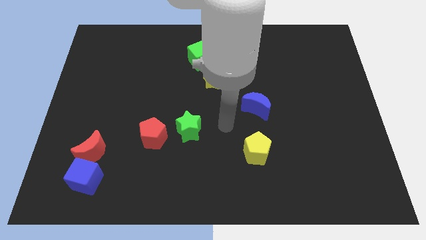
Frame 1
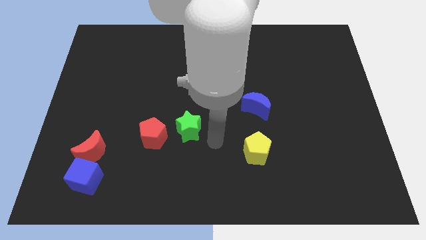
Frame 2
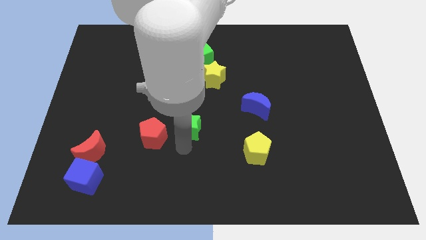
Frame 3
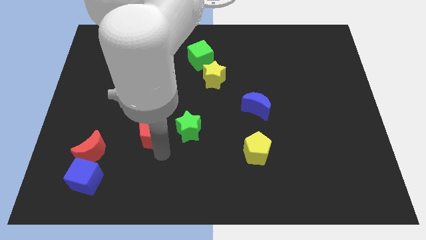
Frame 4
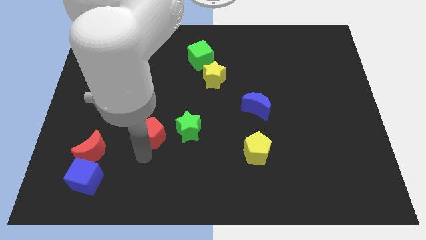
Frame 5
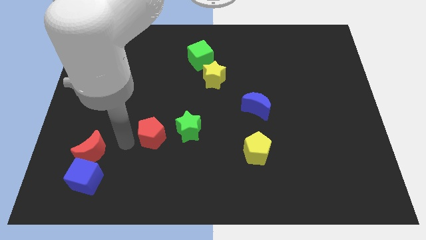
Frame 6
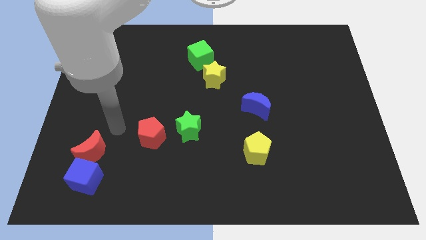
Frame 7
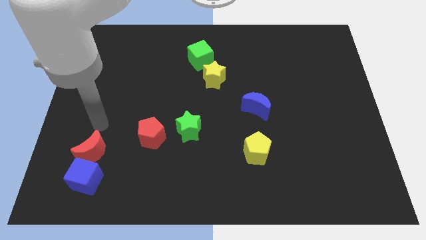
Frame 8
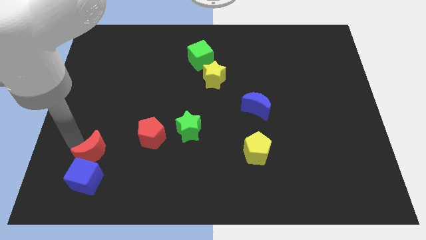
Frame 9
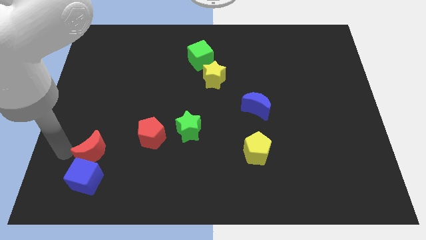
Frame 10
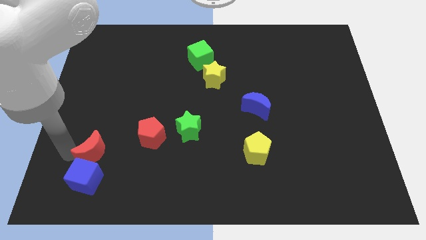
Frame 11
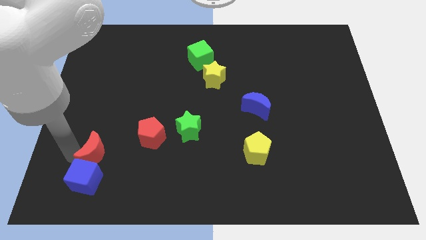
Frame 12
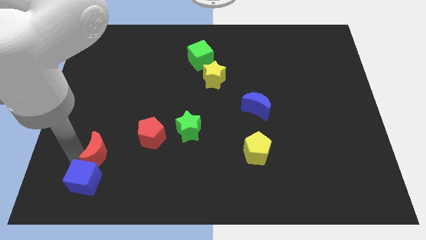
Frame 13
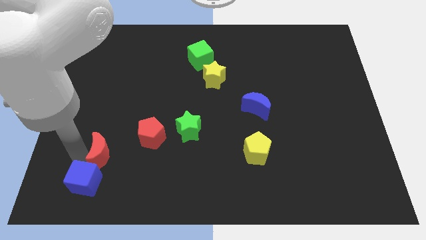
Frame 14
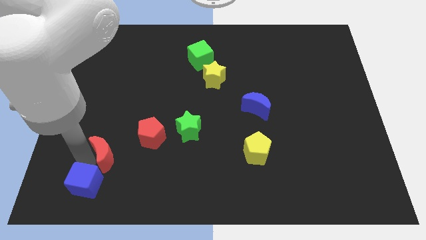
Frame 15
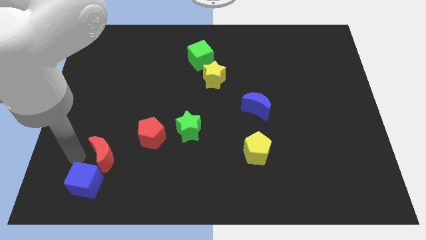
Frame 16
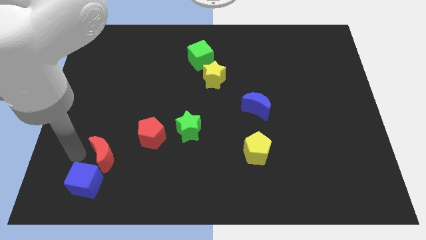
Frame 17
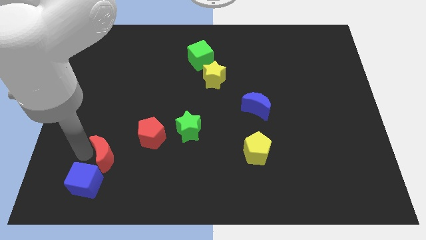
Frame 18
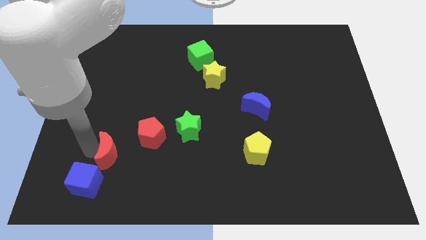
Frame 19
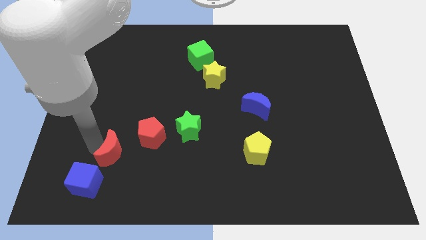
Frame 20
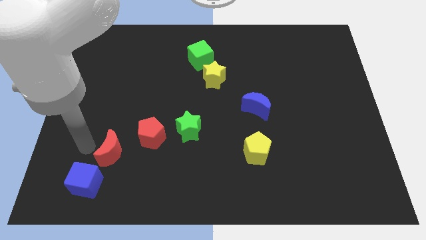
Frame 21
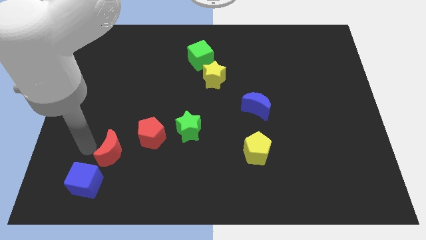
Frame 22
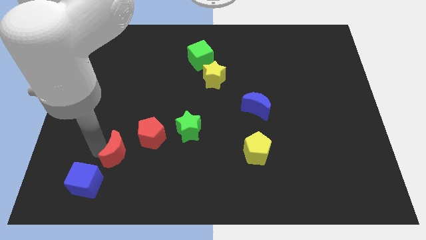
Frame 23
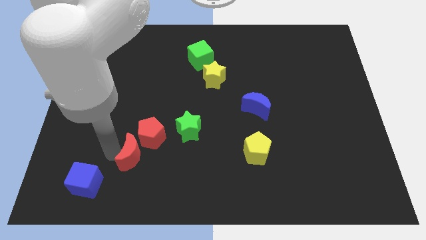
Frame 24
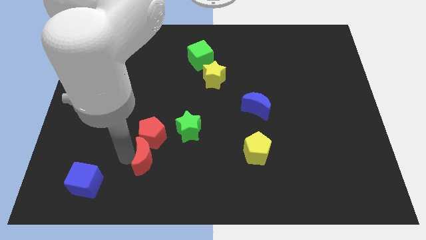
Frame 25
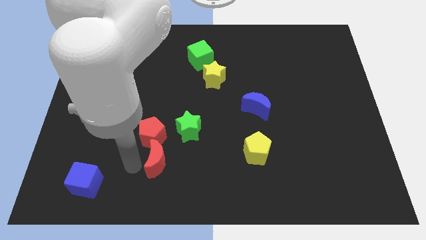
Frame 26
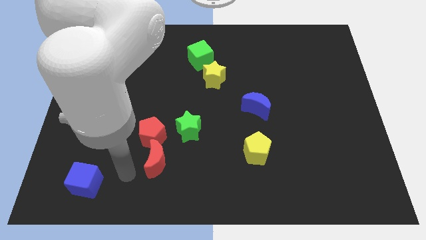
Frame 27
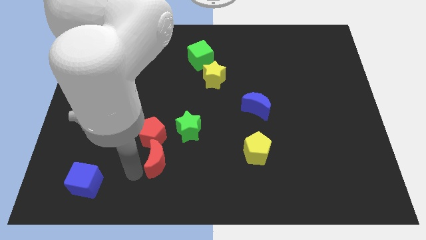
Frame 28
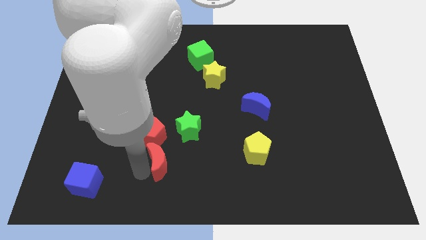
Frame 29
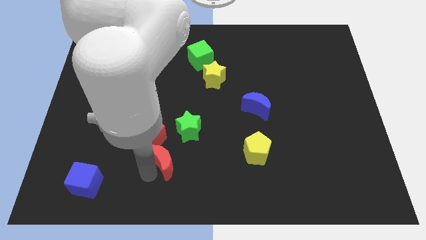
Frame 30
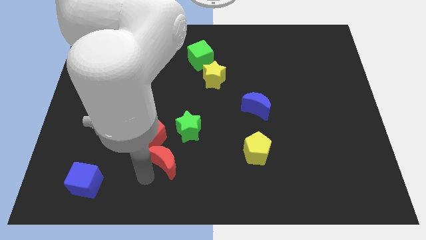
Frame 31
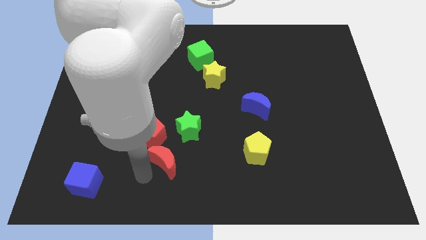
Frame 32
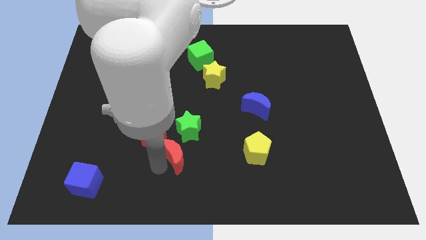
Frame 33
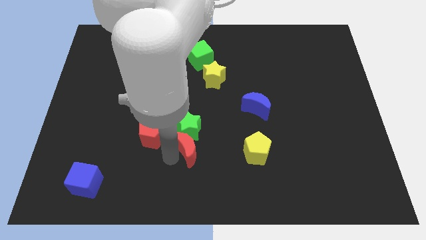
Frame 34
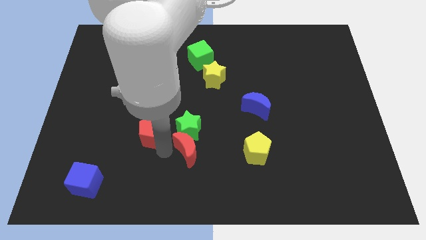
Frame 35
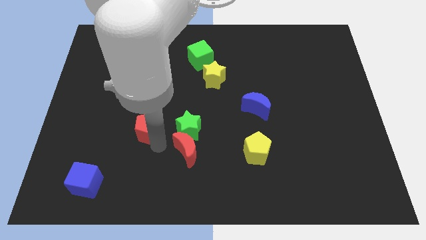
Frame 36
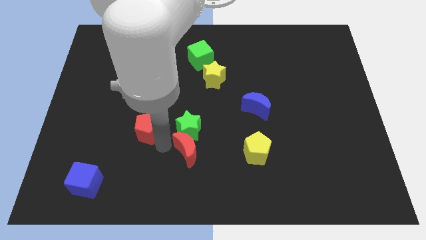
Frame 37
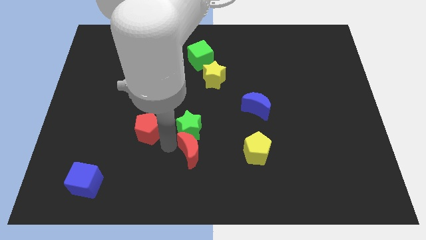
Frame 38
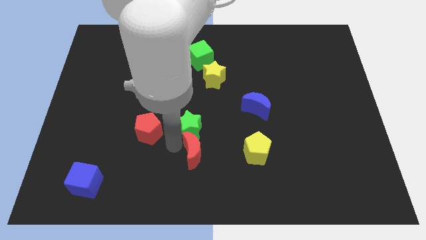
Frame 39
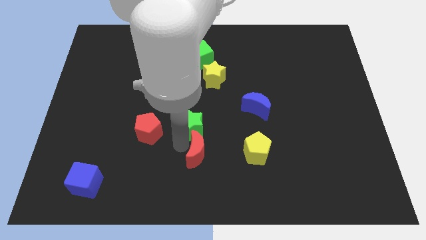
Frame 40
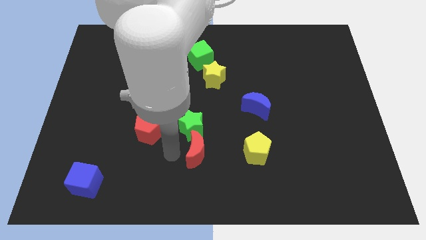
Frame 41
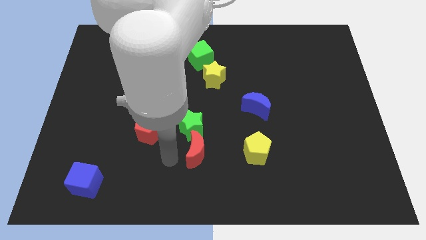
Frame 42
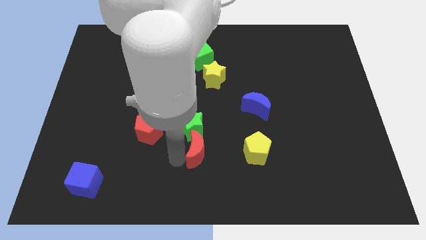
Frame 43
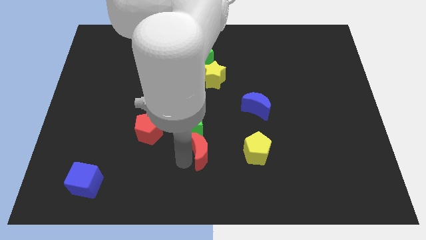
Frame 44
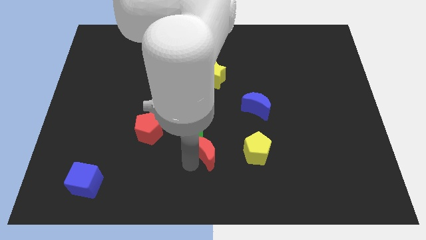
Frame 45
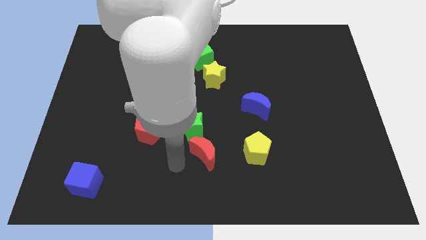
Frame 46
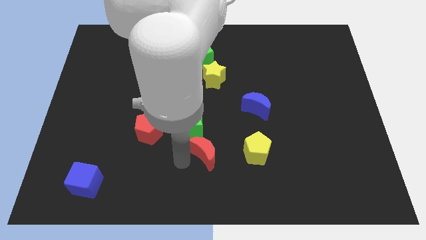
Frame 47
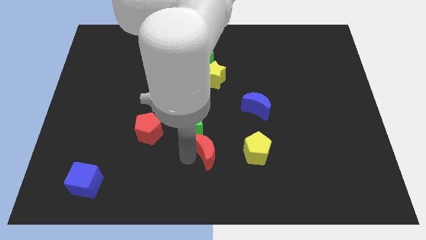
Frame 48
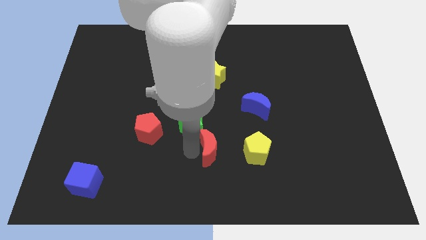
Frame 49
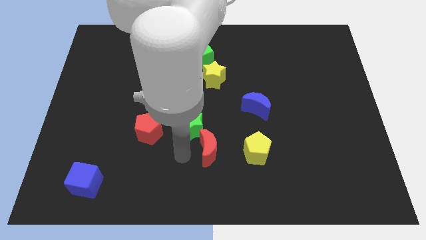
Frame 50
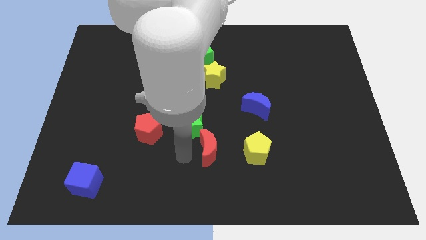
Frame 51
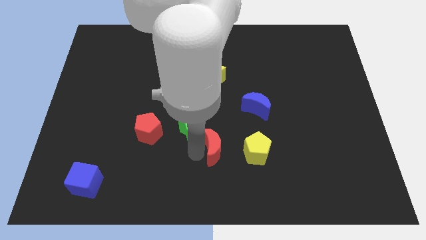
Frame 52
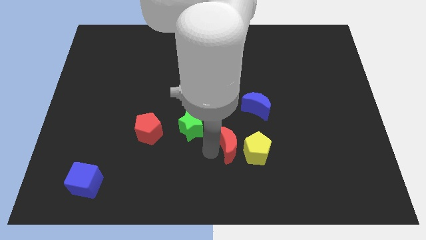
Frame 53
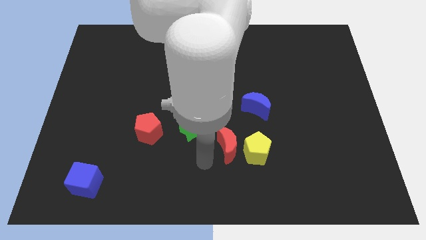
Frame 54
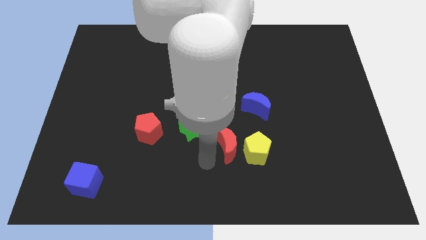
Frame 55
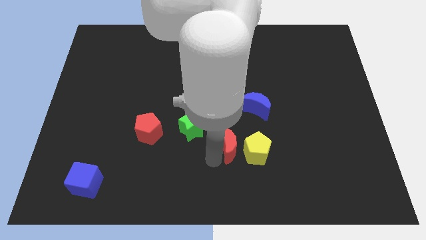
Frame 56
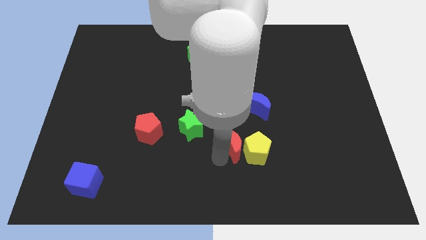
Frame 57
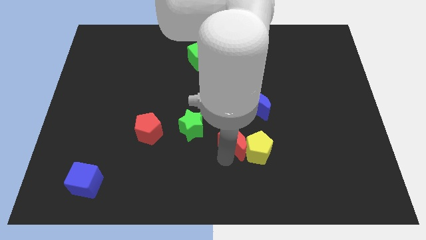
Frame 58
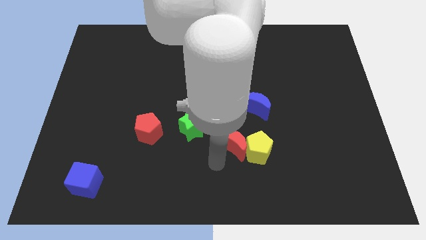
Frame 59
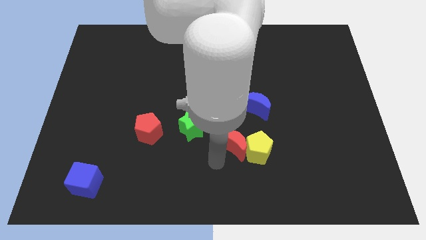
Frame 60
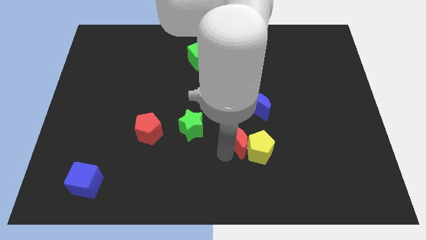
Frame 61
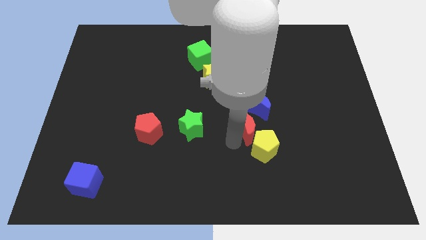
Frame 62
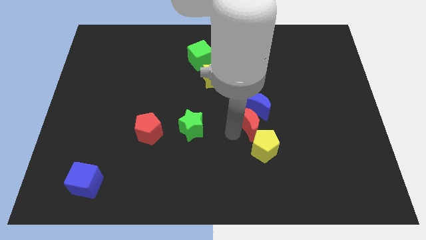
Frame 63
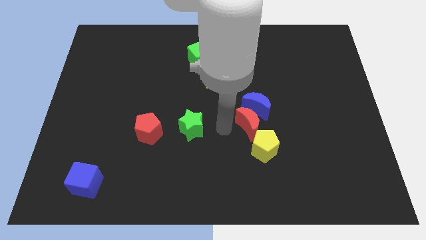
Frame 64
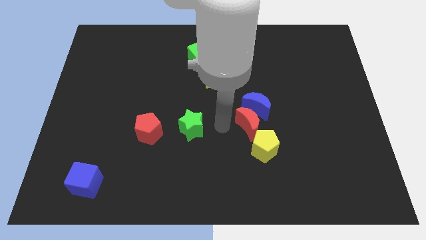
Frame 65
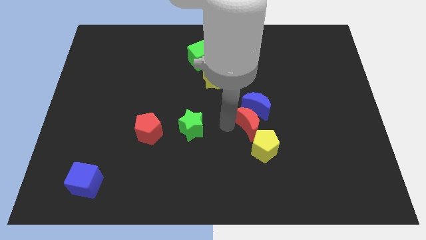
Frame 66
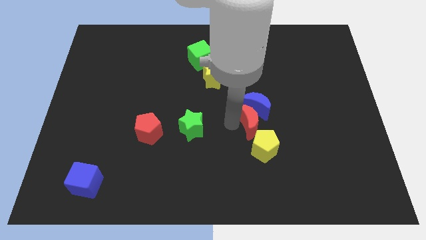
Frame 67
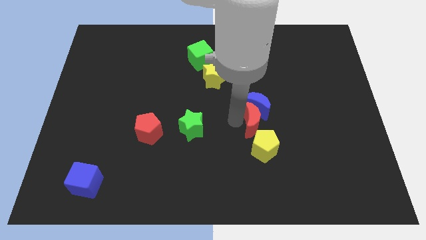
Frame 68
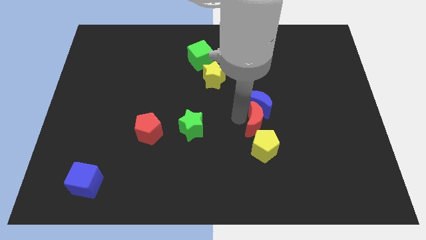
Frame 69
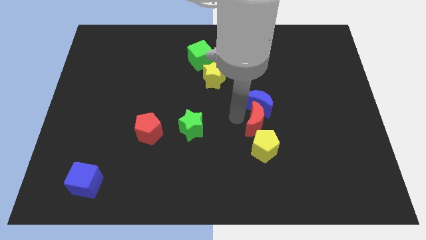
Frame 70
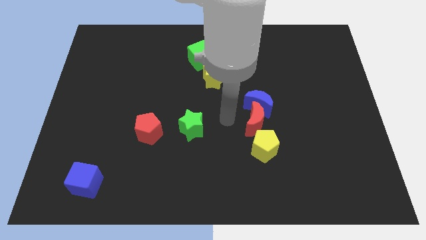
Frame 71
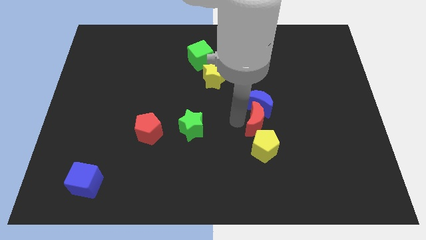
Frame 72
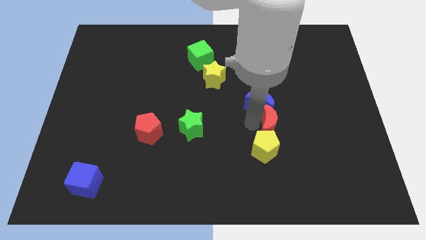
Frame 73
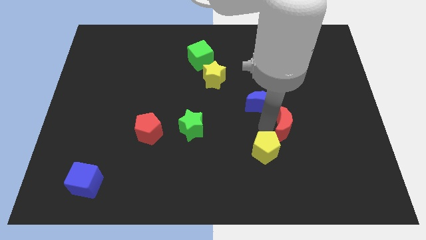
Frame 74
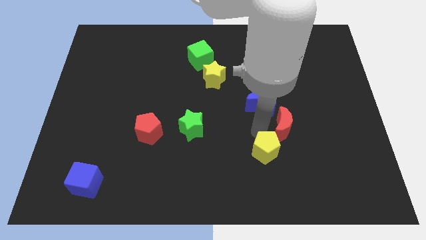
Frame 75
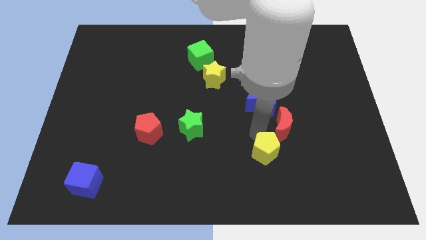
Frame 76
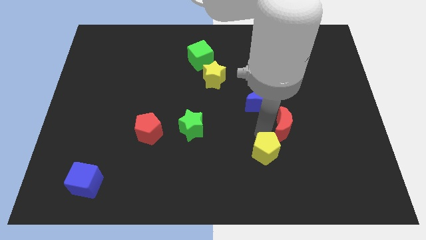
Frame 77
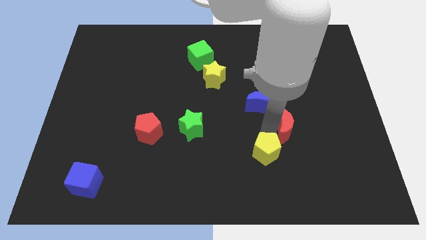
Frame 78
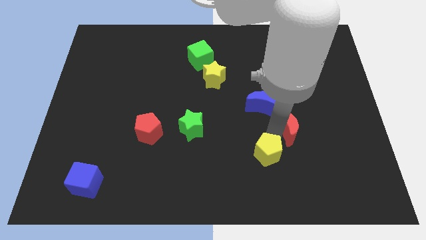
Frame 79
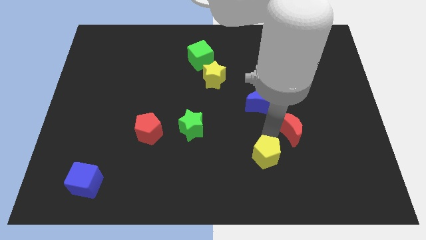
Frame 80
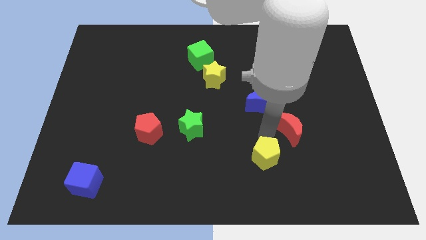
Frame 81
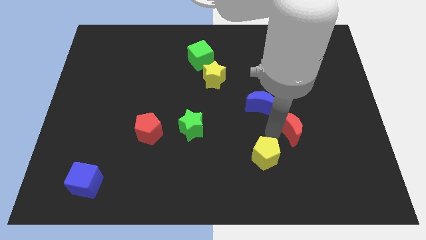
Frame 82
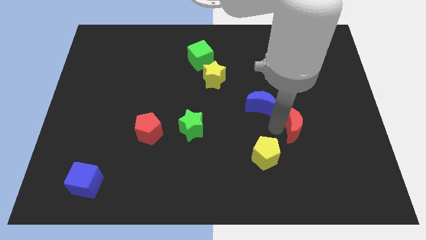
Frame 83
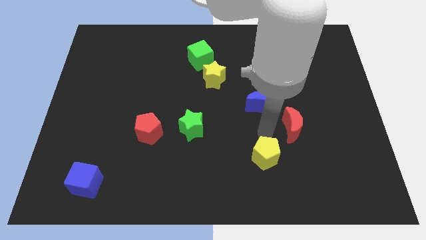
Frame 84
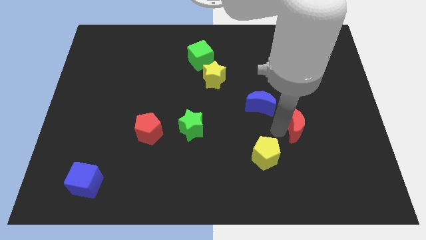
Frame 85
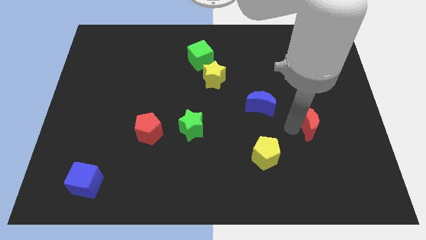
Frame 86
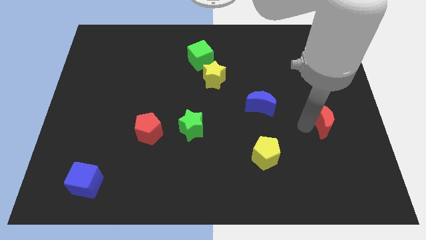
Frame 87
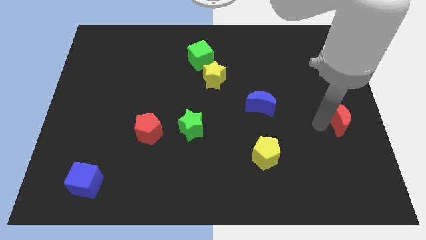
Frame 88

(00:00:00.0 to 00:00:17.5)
put the red moon to the center right
